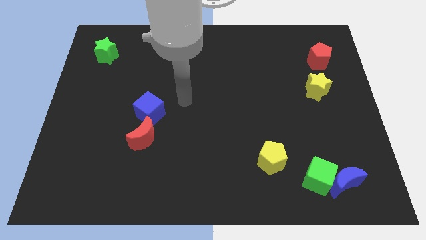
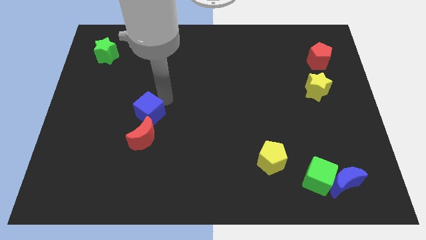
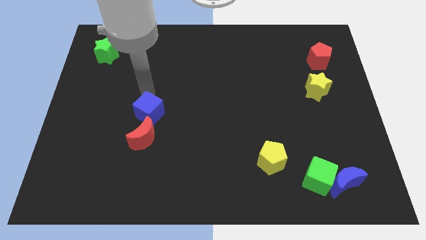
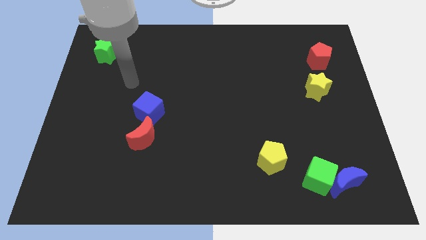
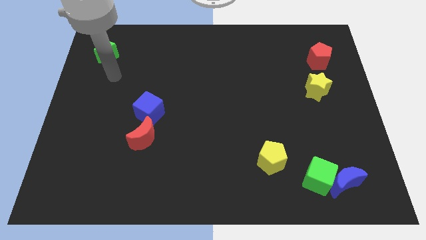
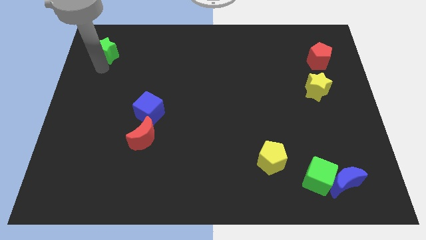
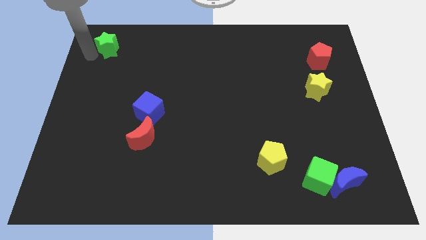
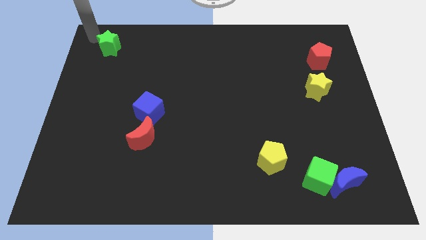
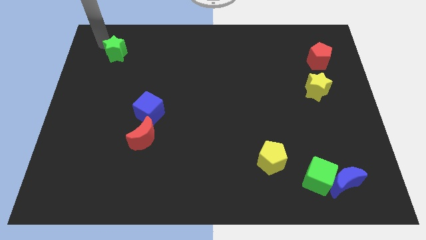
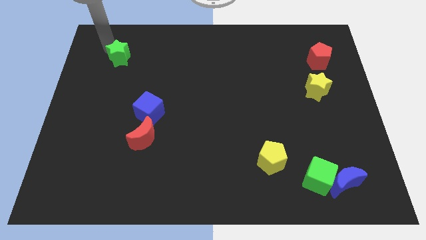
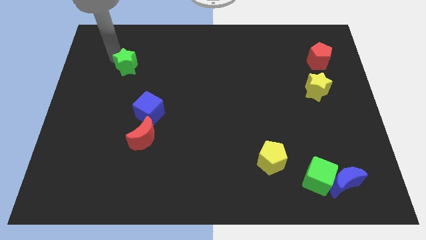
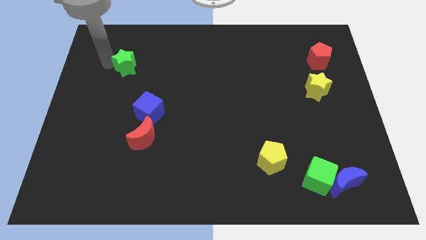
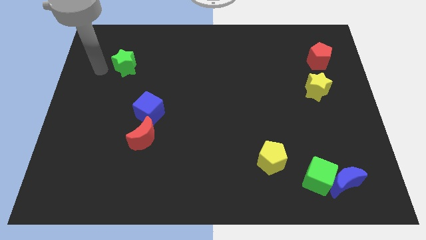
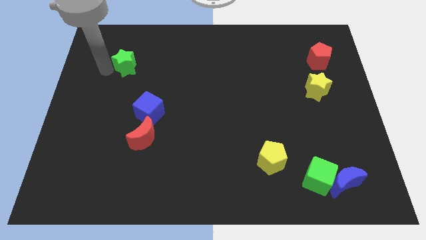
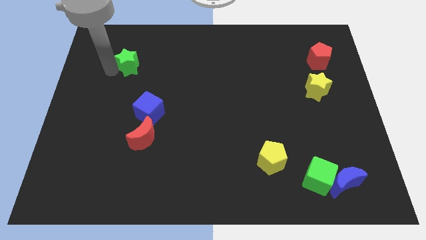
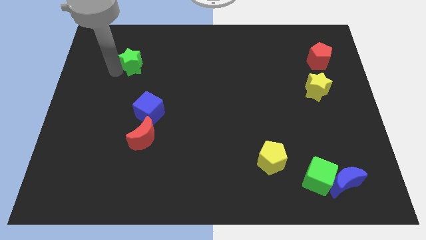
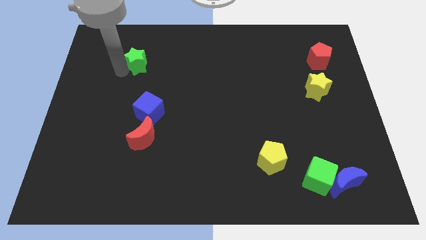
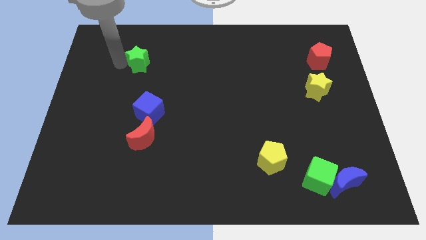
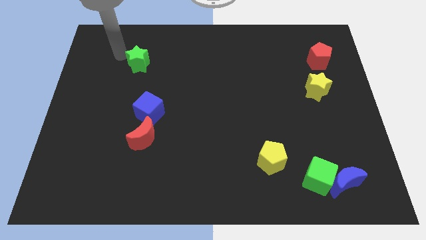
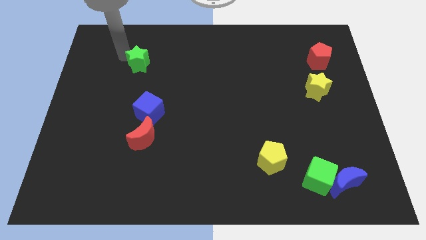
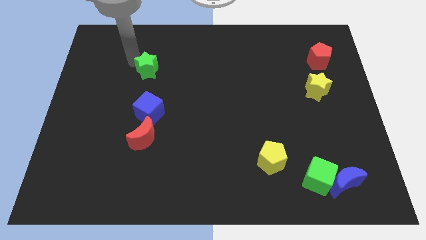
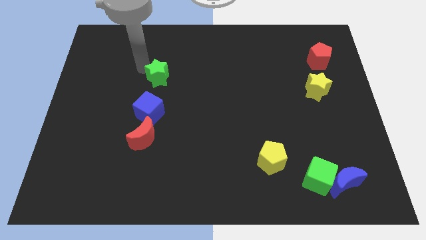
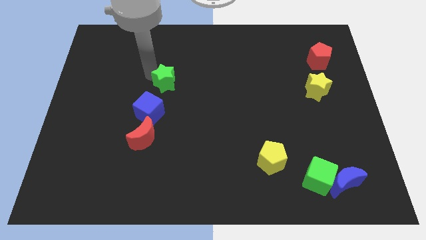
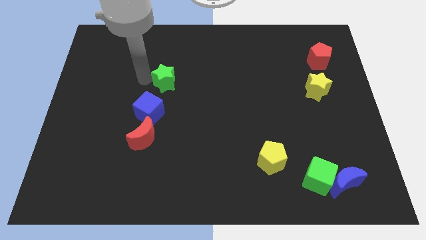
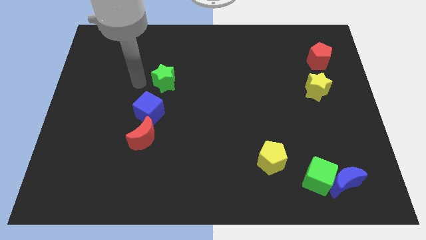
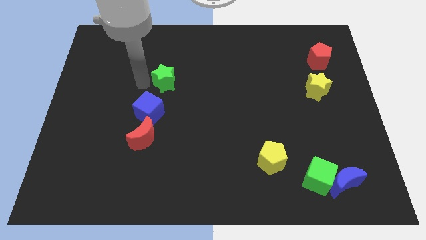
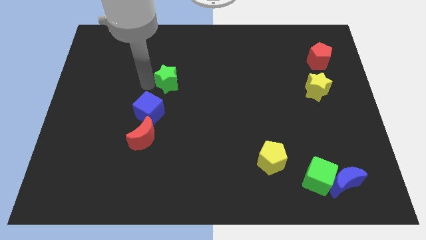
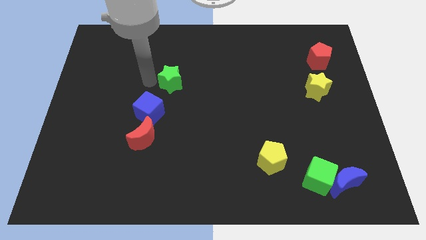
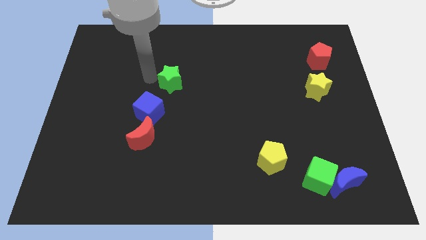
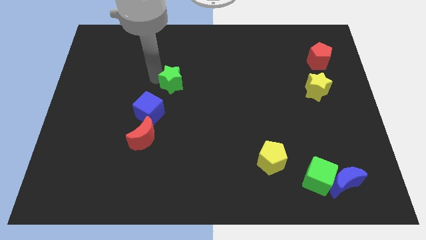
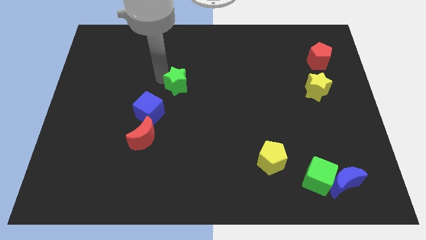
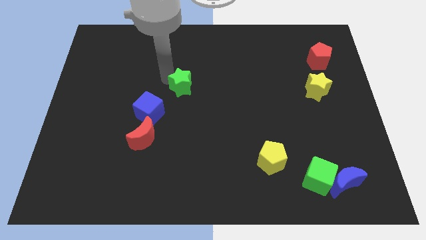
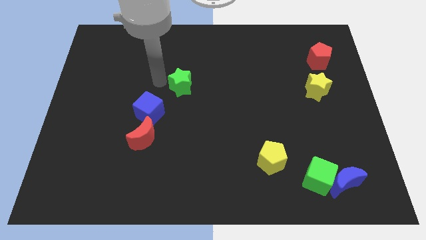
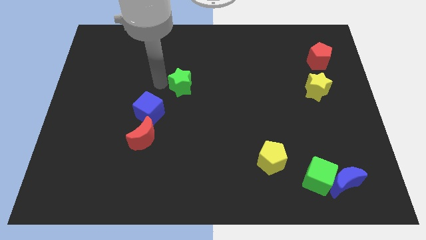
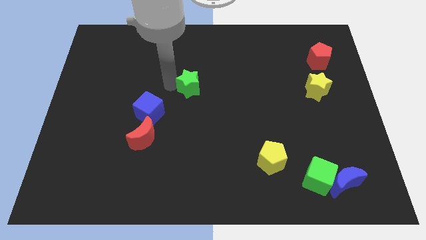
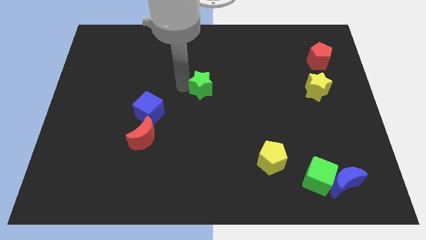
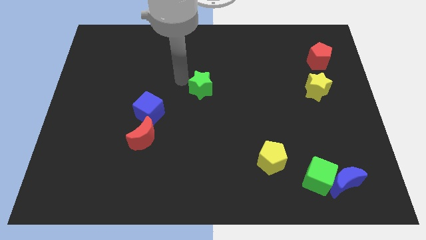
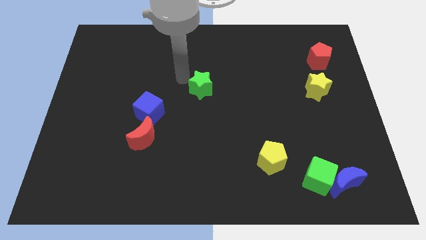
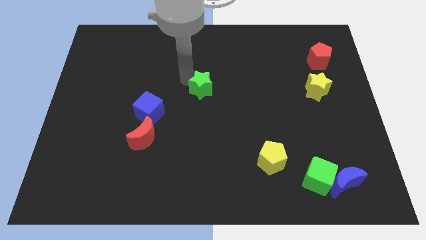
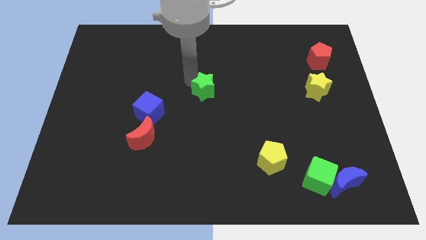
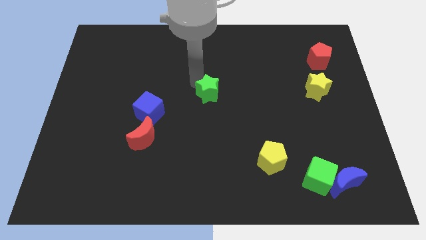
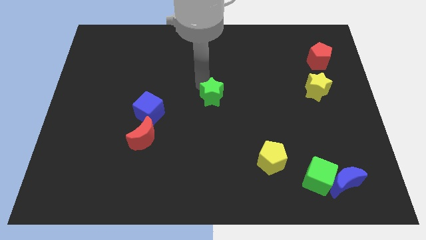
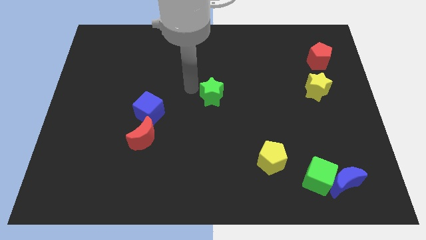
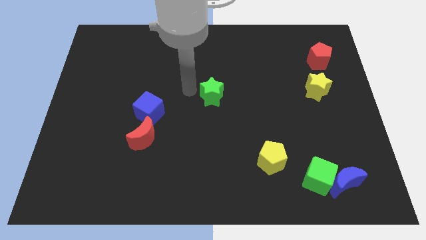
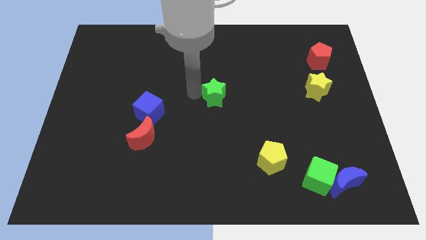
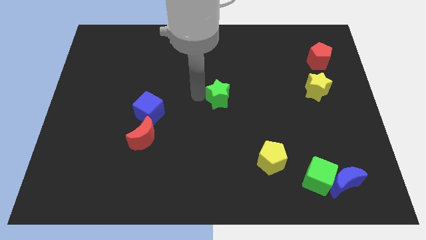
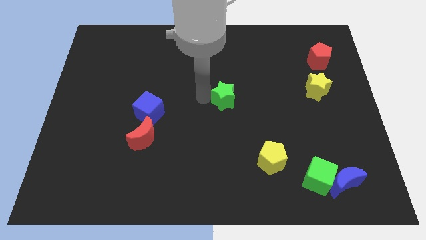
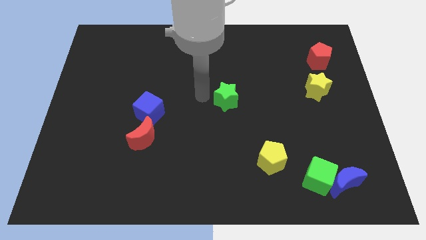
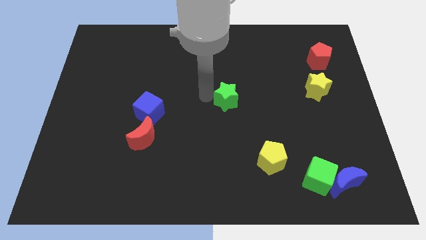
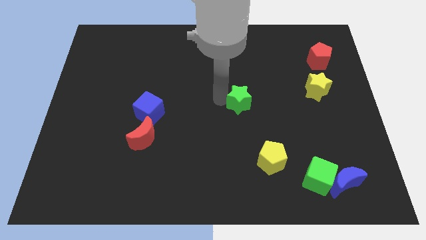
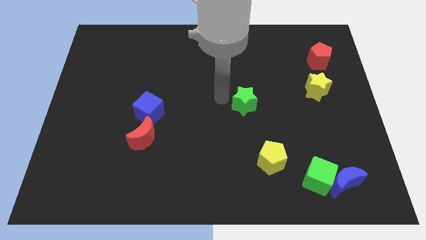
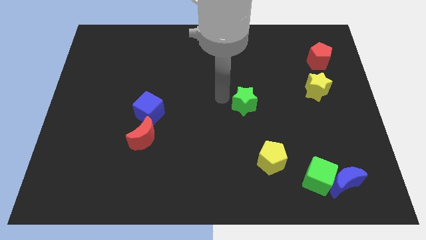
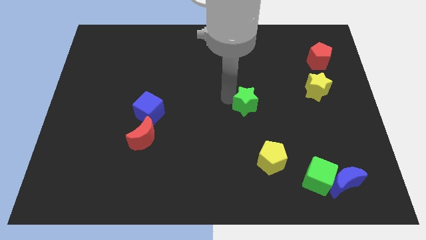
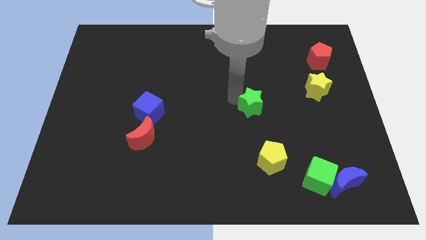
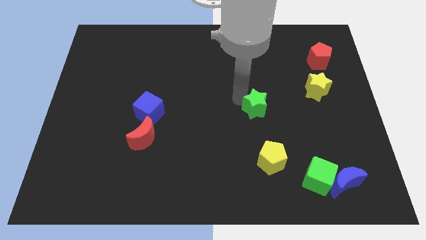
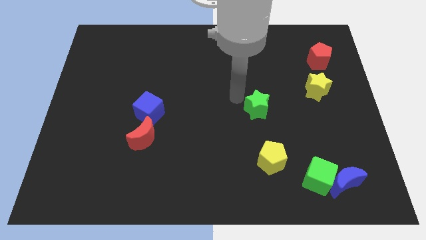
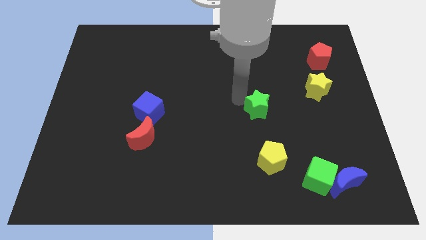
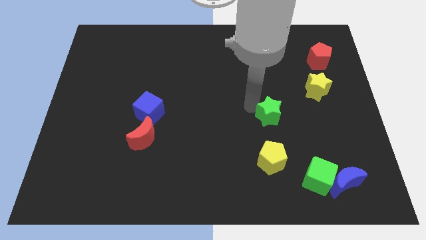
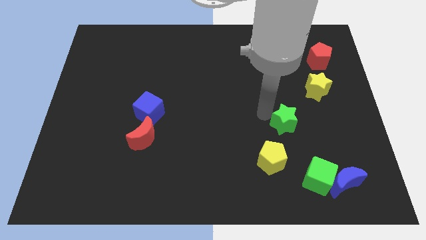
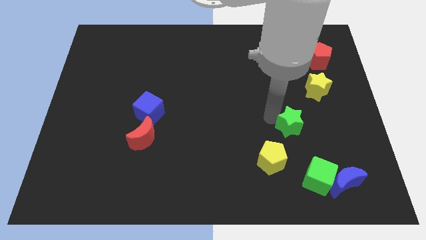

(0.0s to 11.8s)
push the green star to the top side of the green cube

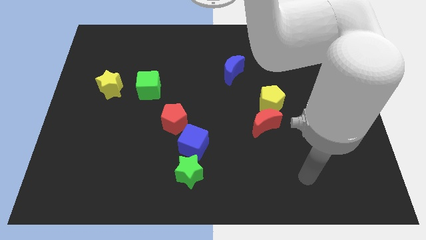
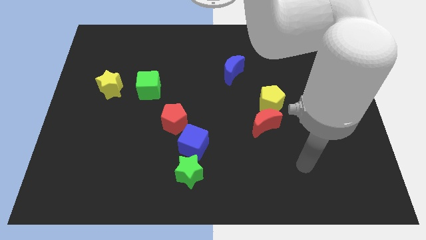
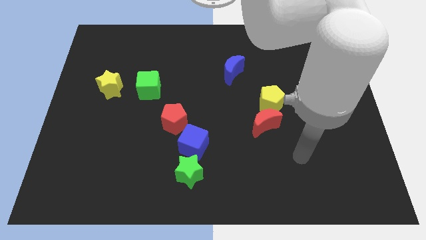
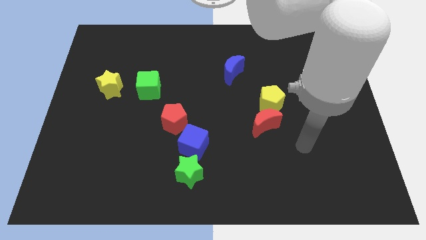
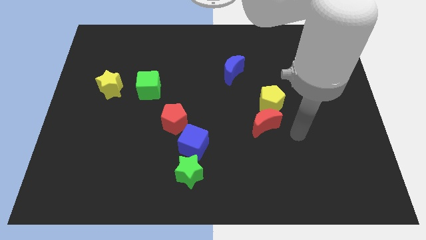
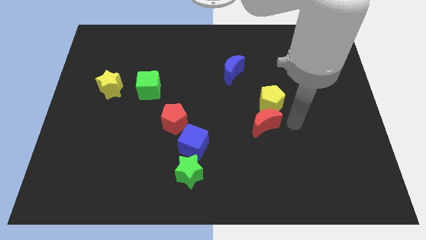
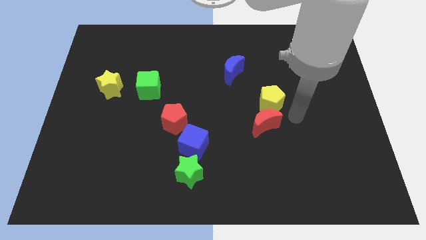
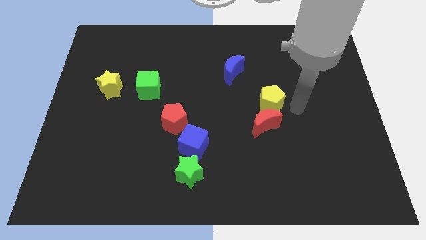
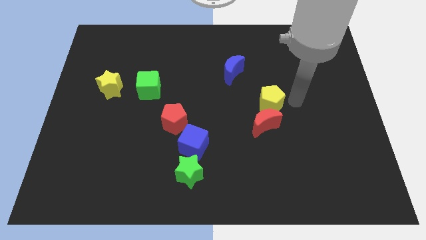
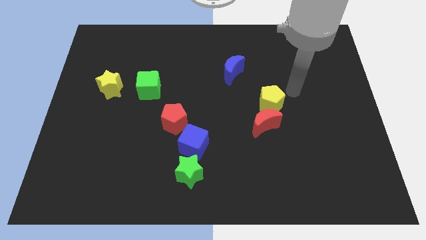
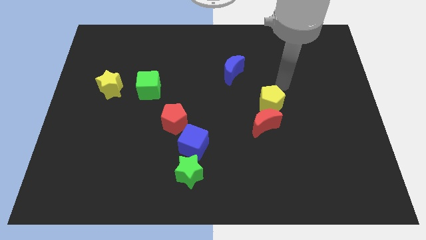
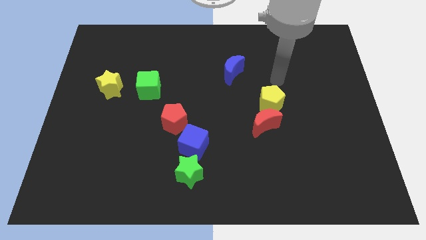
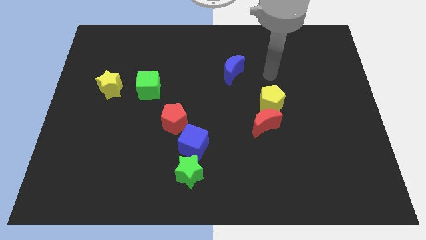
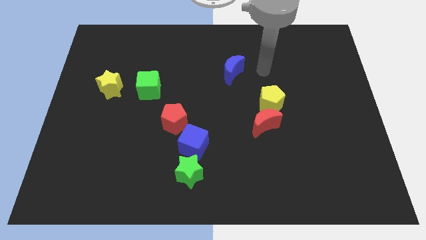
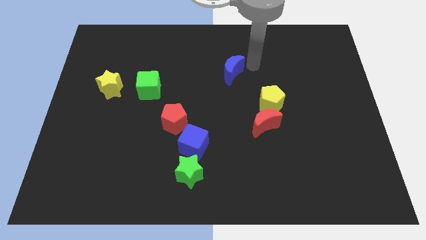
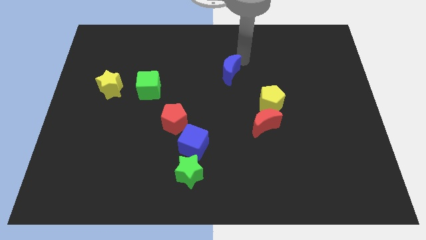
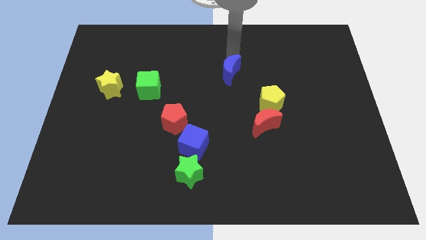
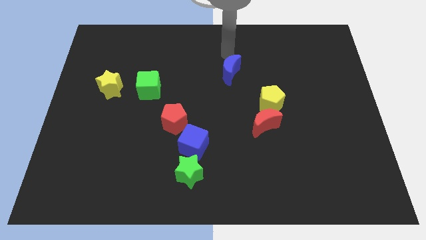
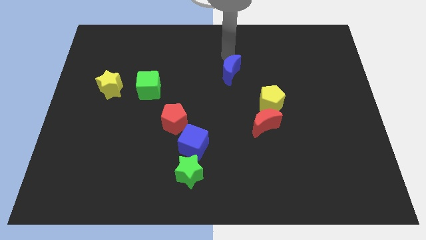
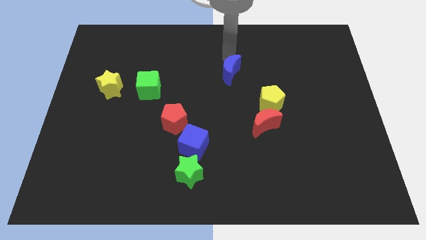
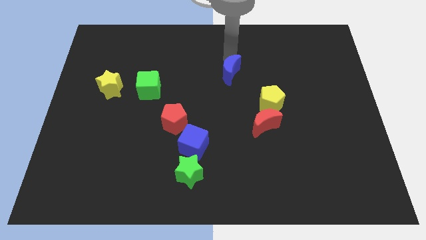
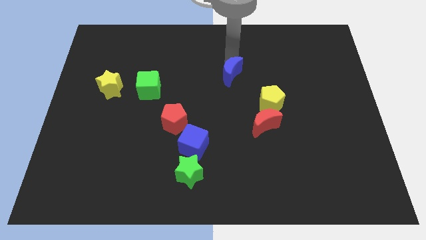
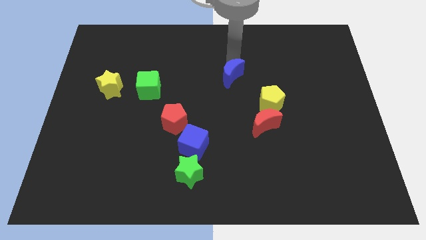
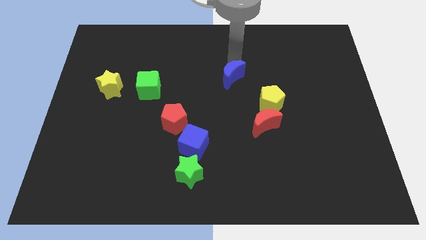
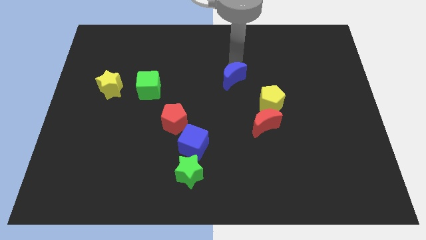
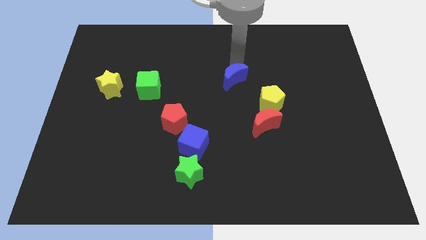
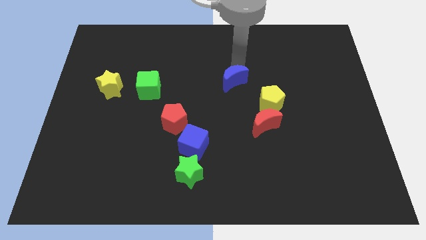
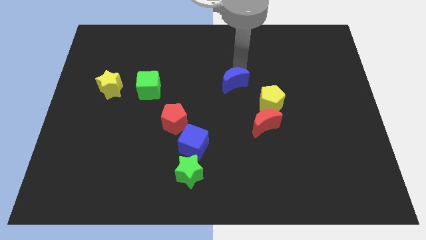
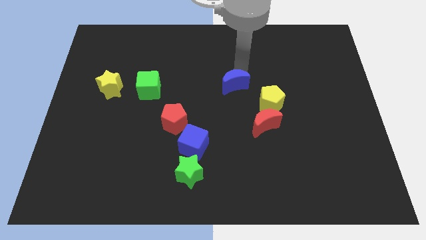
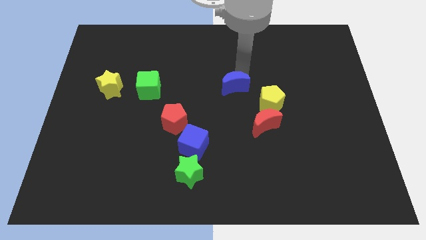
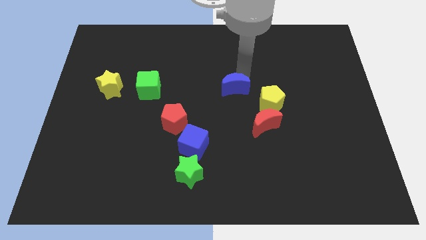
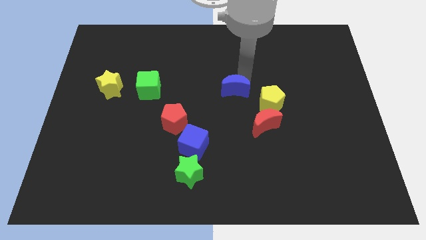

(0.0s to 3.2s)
put the blue moon to the top left side of the red moon
